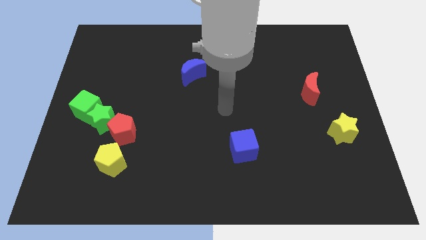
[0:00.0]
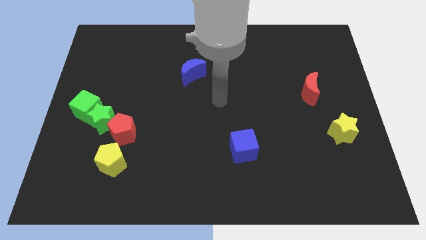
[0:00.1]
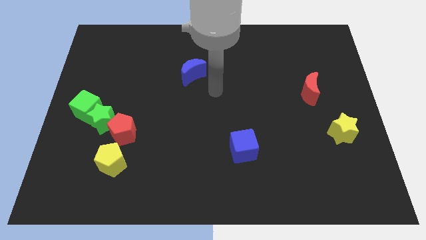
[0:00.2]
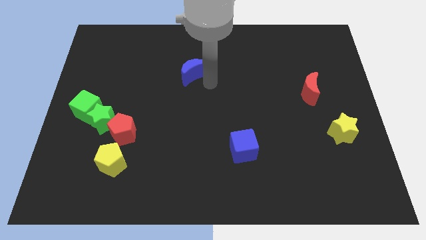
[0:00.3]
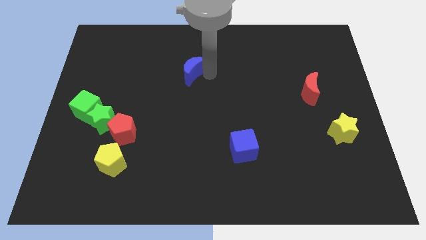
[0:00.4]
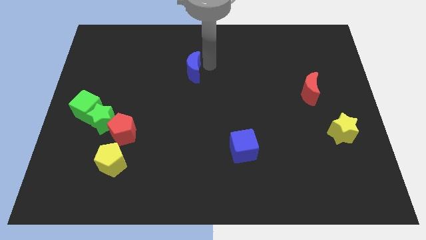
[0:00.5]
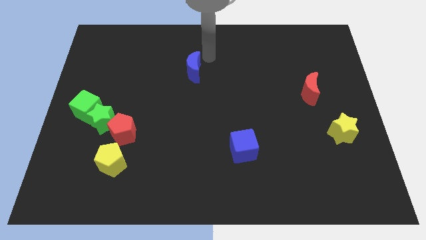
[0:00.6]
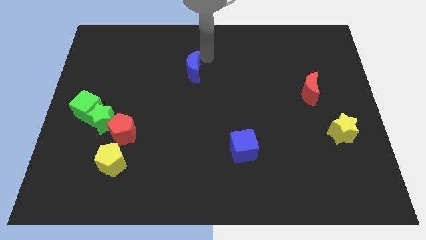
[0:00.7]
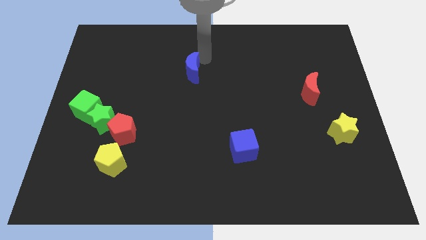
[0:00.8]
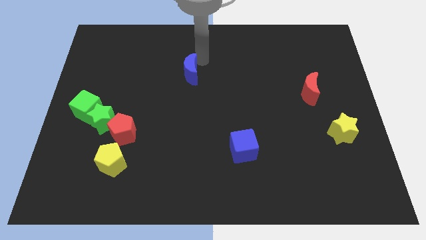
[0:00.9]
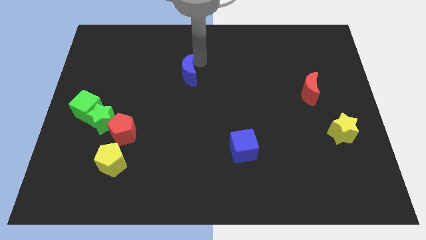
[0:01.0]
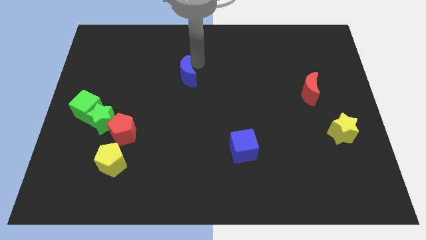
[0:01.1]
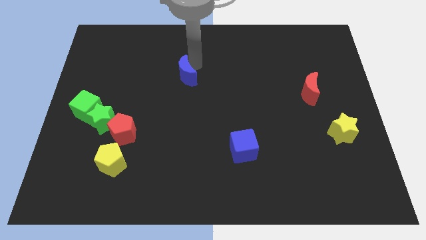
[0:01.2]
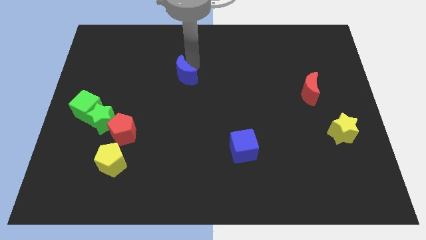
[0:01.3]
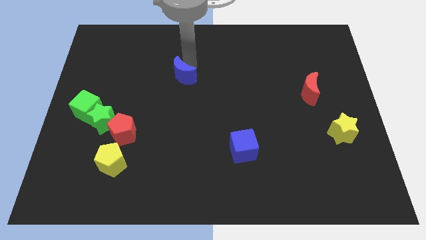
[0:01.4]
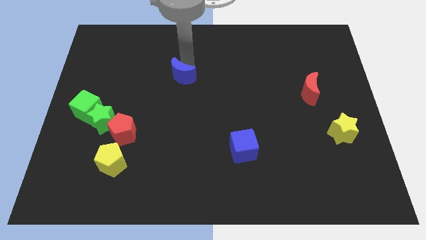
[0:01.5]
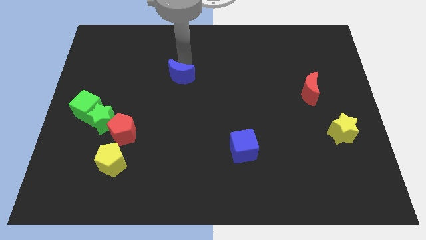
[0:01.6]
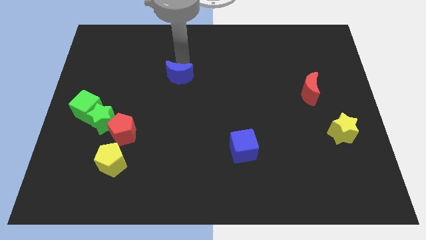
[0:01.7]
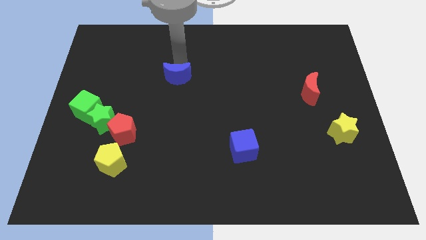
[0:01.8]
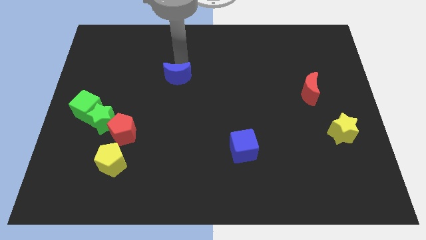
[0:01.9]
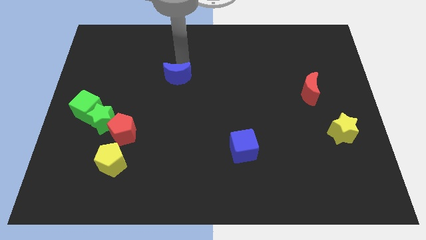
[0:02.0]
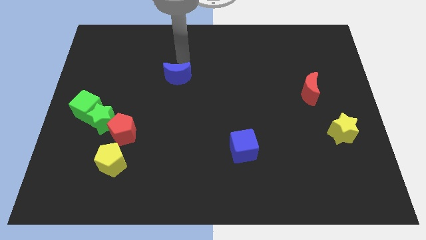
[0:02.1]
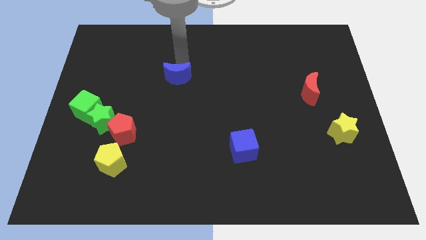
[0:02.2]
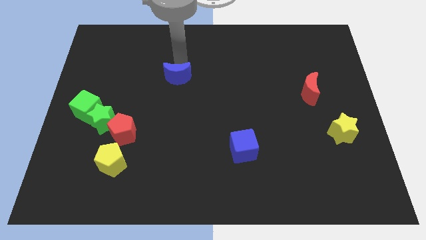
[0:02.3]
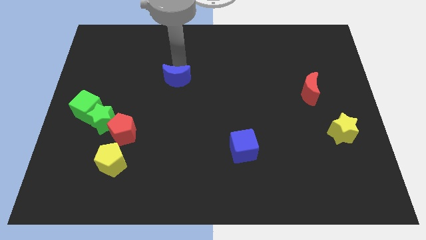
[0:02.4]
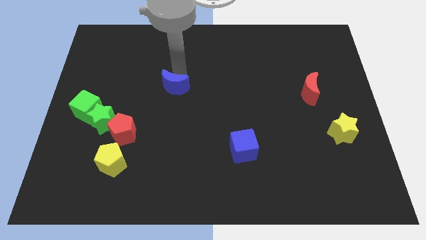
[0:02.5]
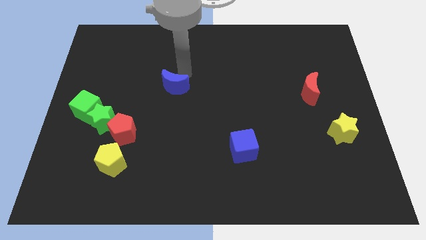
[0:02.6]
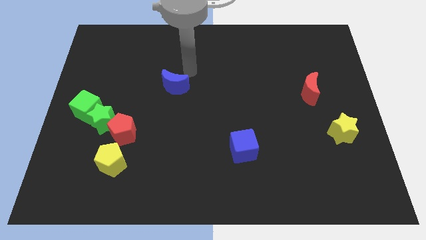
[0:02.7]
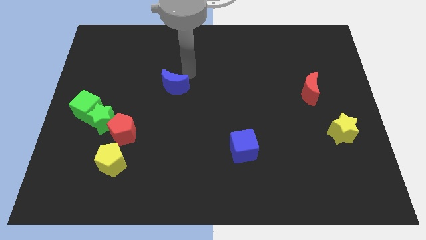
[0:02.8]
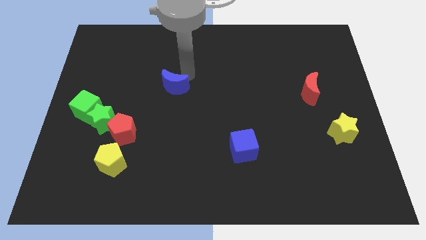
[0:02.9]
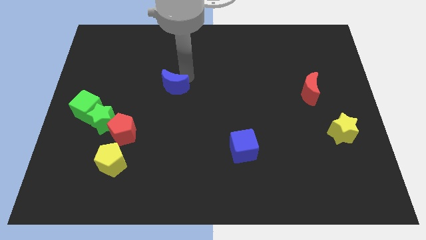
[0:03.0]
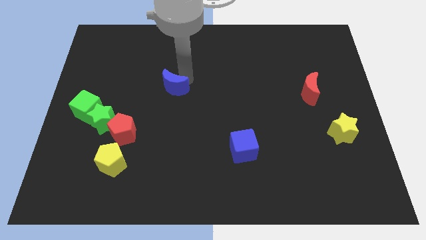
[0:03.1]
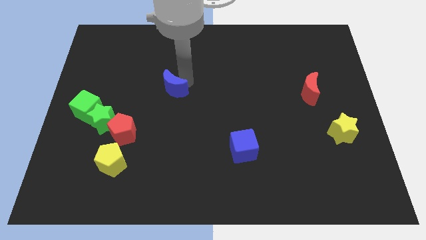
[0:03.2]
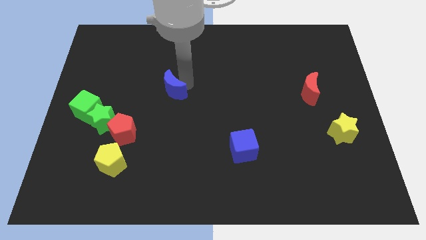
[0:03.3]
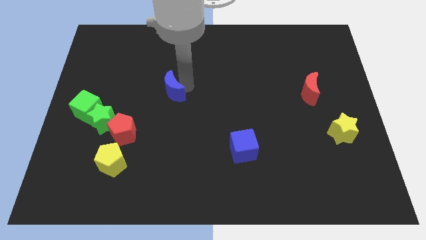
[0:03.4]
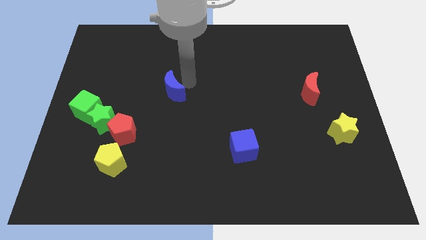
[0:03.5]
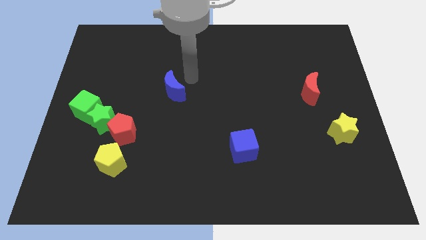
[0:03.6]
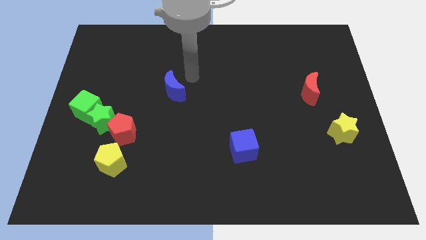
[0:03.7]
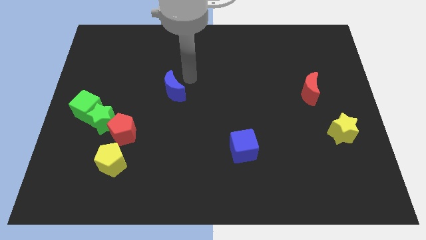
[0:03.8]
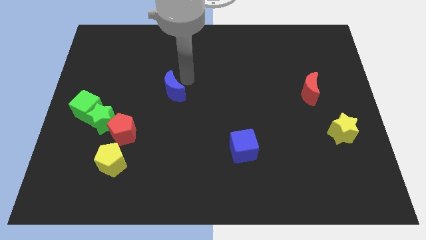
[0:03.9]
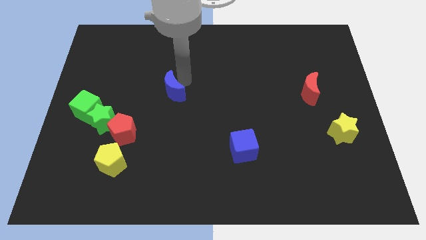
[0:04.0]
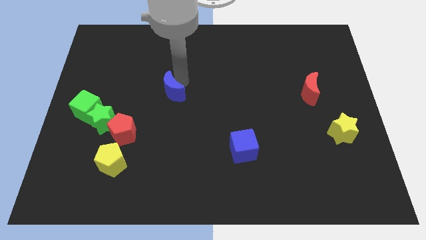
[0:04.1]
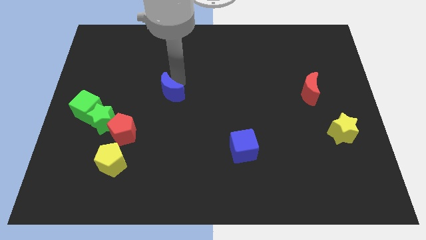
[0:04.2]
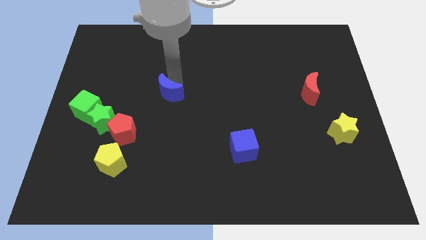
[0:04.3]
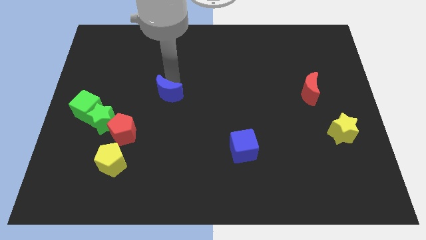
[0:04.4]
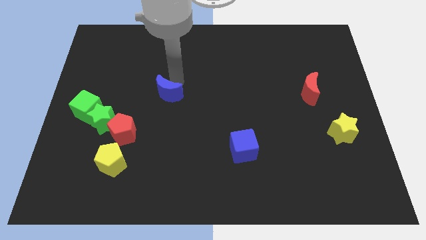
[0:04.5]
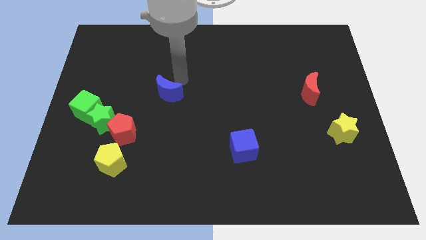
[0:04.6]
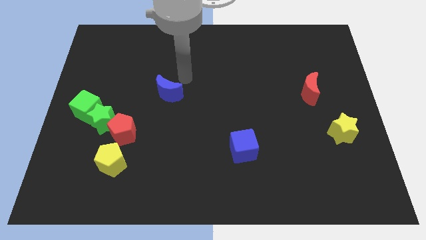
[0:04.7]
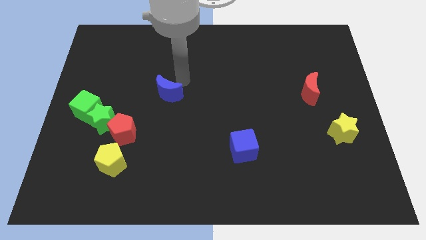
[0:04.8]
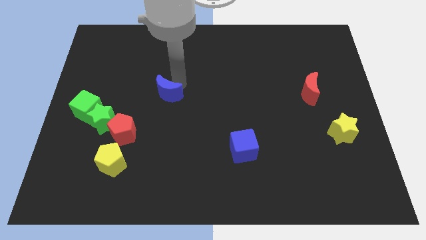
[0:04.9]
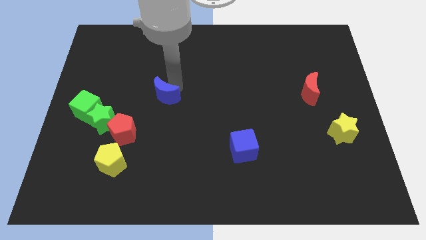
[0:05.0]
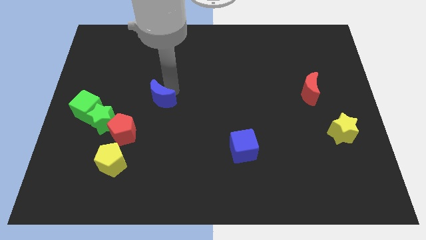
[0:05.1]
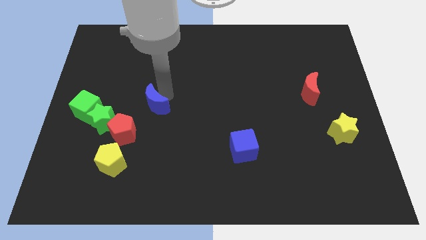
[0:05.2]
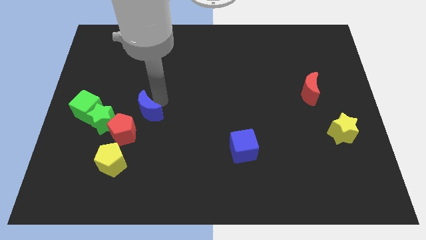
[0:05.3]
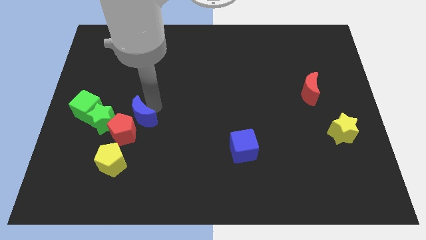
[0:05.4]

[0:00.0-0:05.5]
slide the blue moon next to the red pentagon

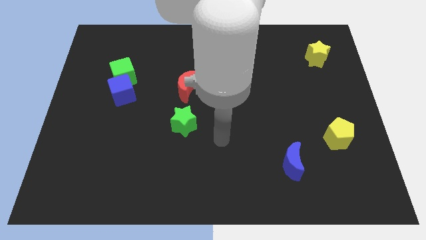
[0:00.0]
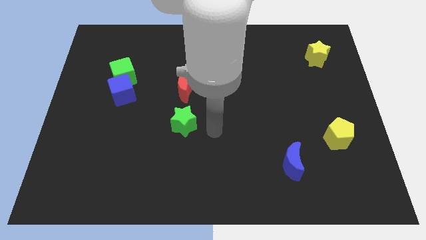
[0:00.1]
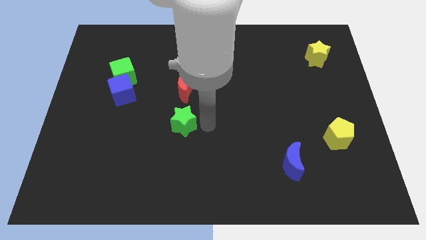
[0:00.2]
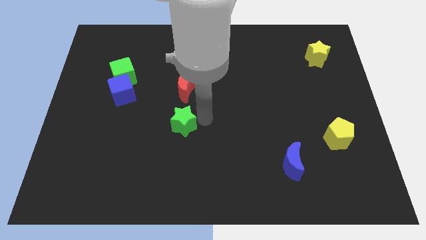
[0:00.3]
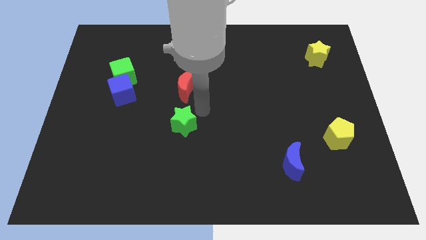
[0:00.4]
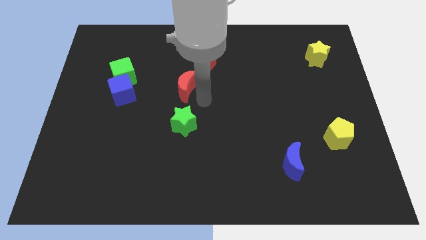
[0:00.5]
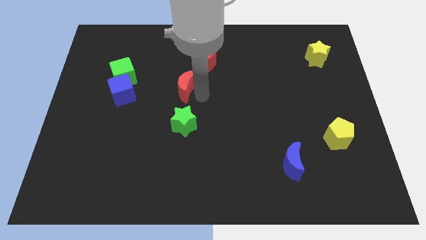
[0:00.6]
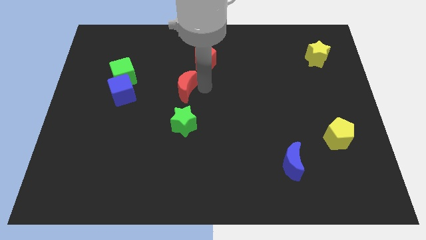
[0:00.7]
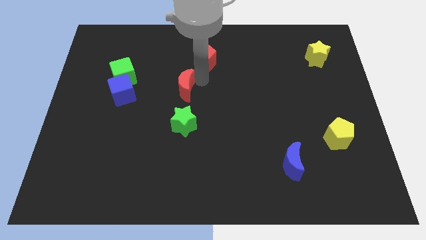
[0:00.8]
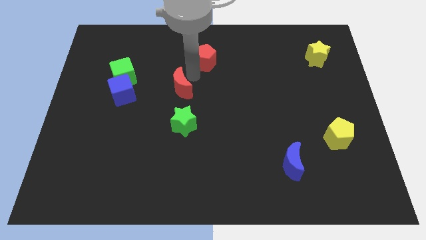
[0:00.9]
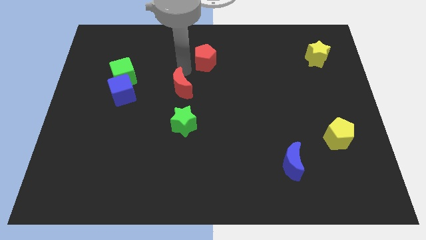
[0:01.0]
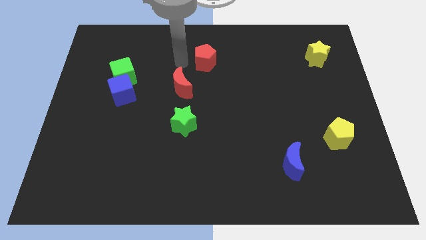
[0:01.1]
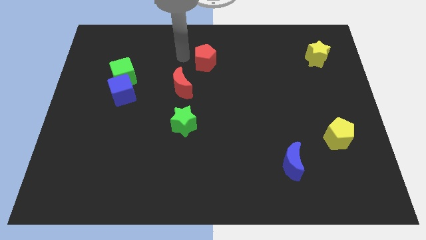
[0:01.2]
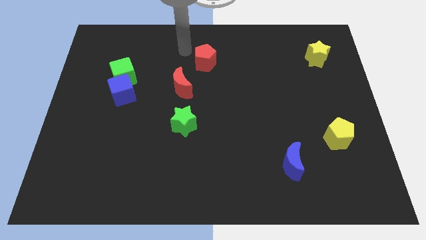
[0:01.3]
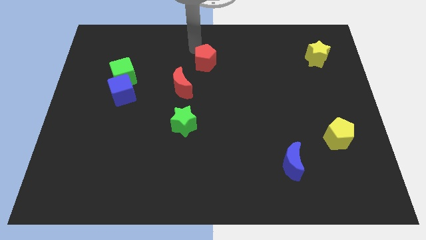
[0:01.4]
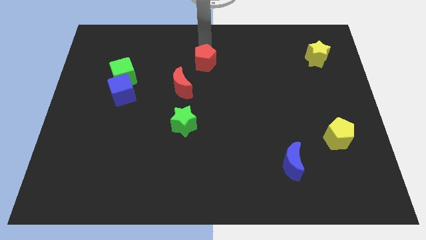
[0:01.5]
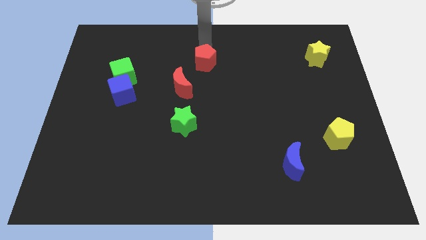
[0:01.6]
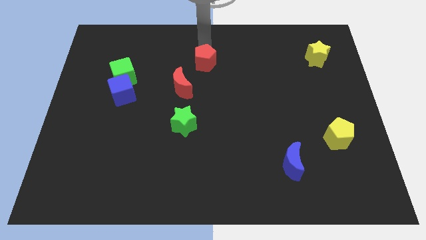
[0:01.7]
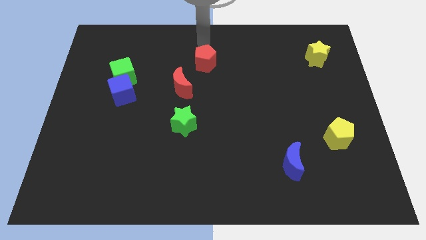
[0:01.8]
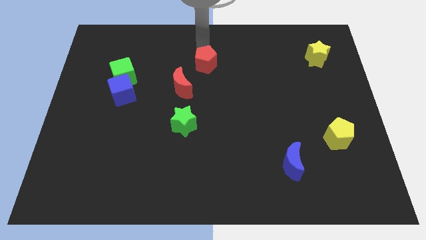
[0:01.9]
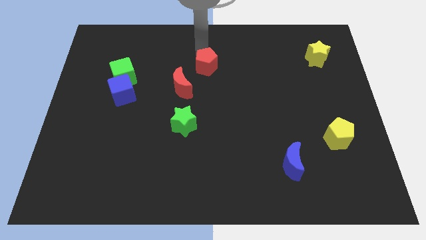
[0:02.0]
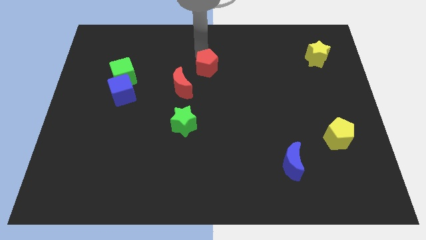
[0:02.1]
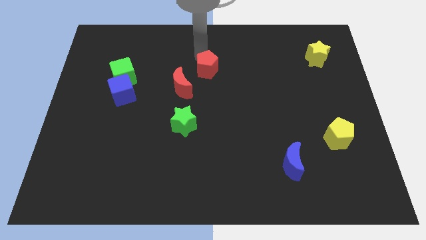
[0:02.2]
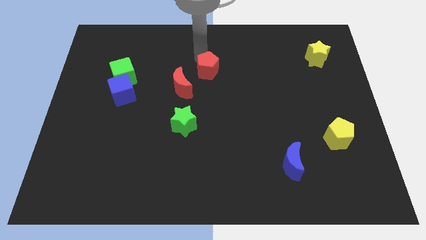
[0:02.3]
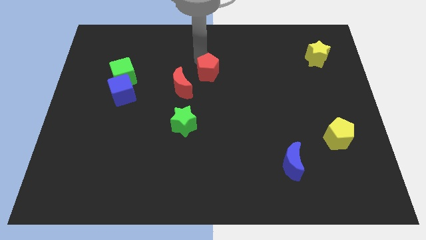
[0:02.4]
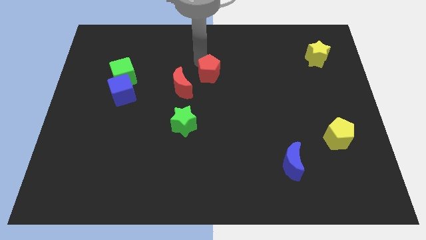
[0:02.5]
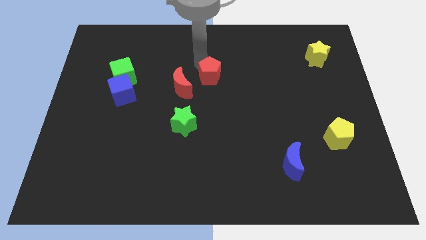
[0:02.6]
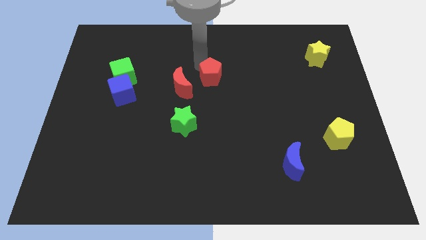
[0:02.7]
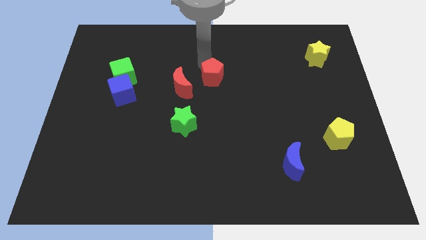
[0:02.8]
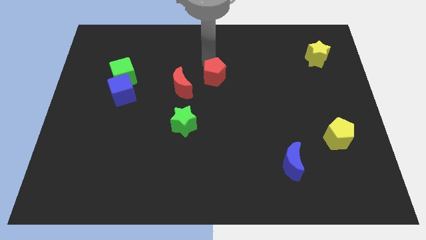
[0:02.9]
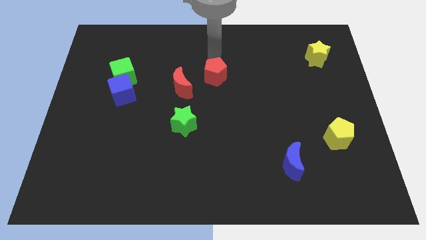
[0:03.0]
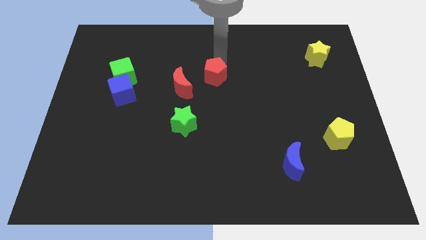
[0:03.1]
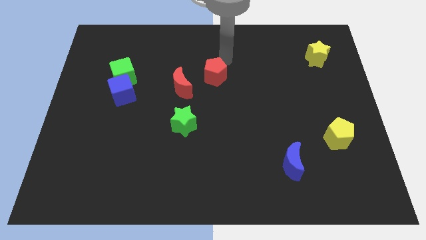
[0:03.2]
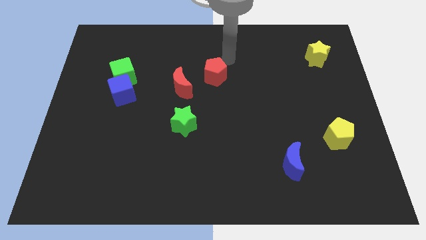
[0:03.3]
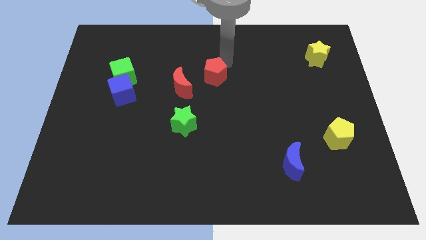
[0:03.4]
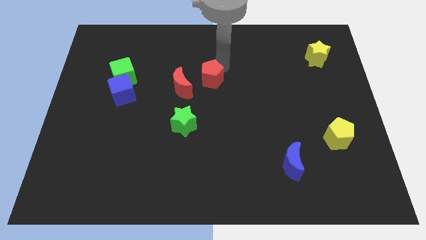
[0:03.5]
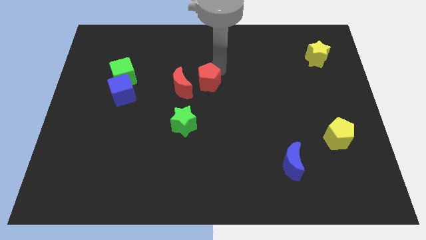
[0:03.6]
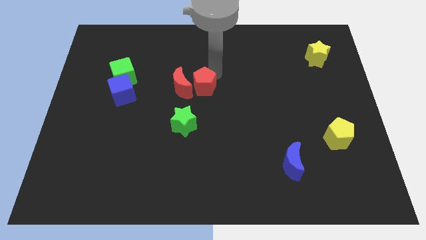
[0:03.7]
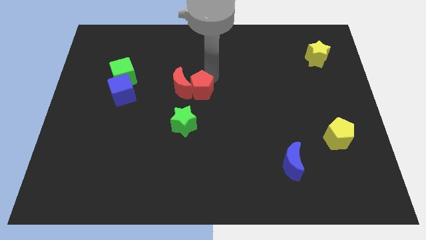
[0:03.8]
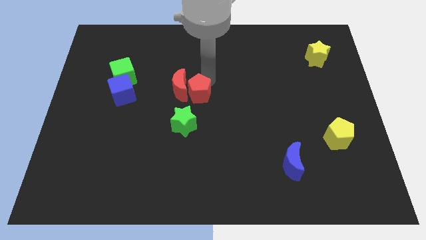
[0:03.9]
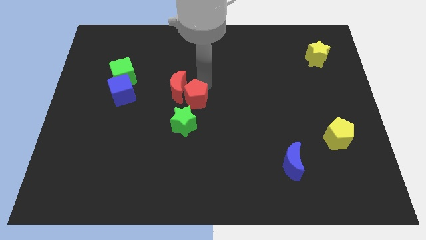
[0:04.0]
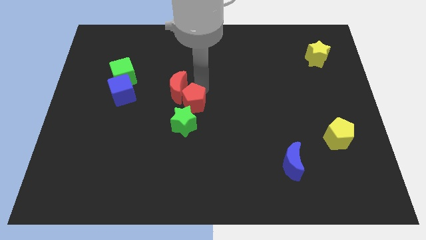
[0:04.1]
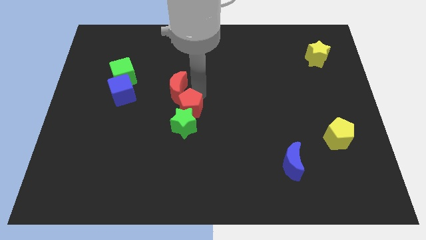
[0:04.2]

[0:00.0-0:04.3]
push the red pentagon close to the green star
